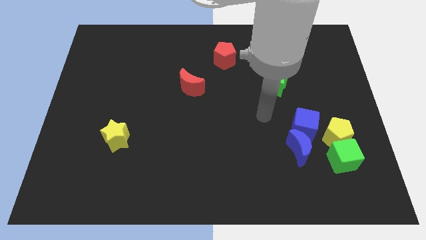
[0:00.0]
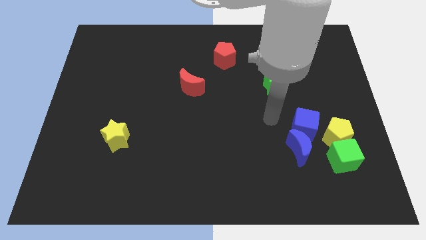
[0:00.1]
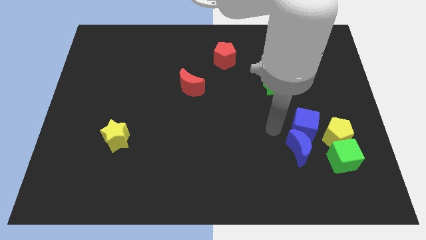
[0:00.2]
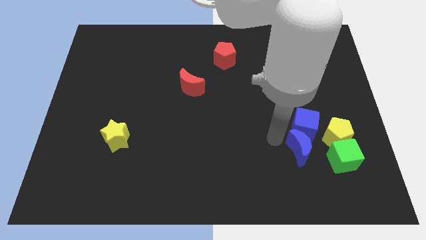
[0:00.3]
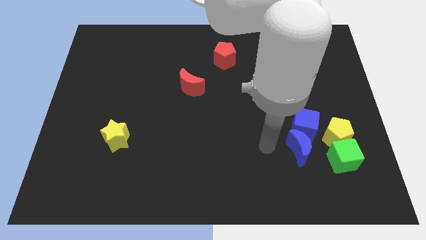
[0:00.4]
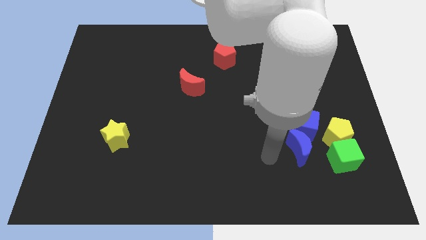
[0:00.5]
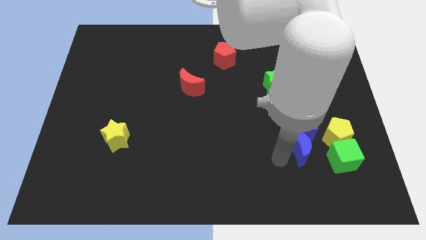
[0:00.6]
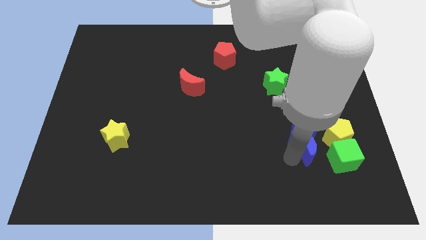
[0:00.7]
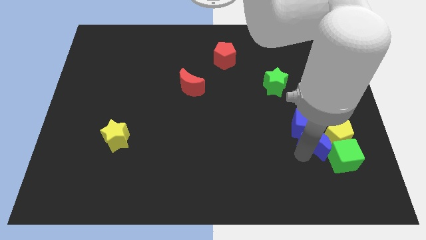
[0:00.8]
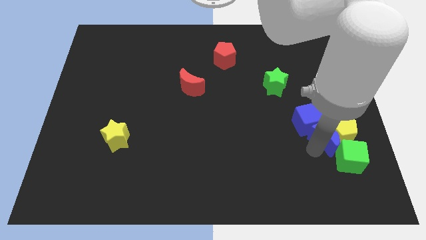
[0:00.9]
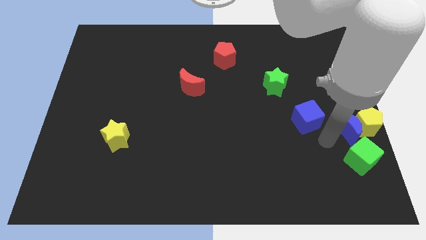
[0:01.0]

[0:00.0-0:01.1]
pull the blue cube apart from the blue moon and yellow pentagon

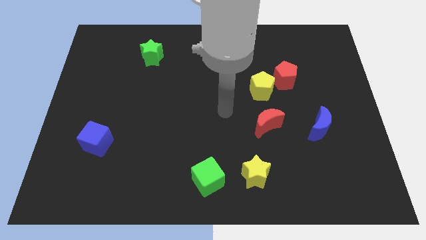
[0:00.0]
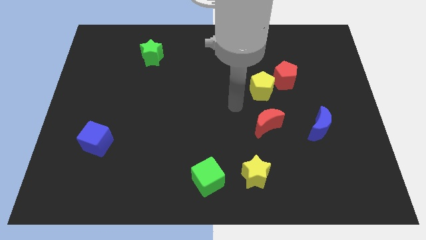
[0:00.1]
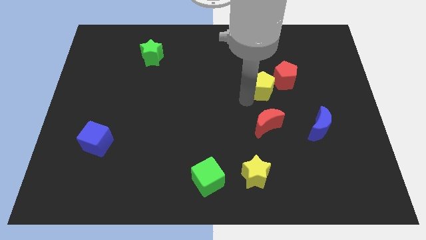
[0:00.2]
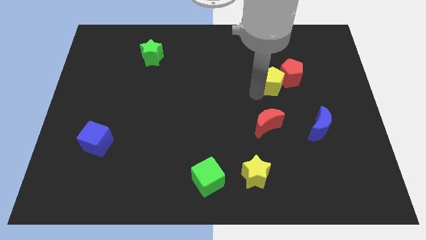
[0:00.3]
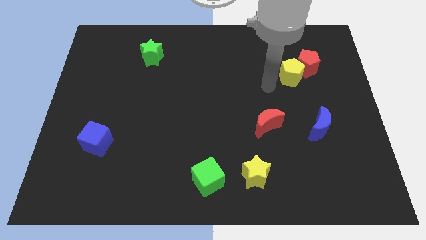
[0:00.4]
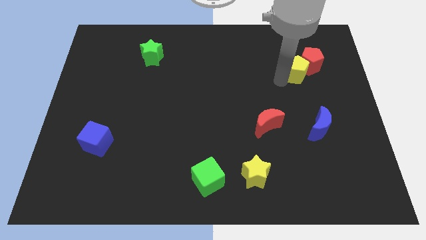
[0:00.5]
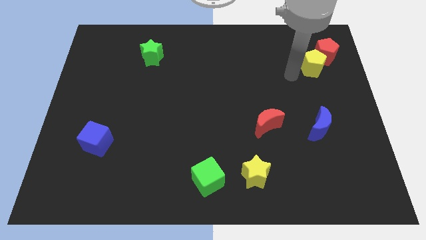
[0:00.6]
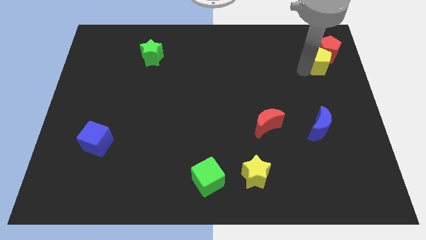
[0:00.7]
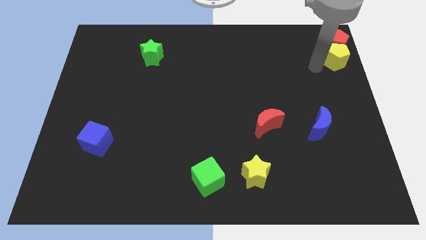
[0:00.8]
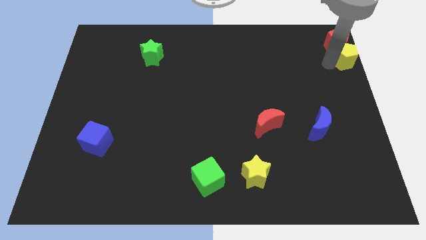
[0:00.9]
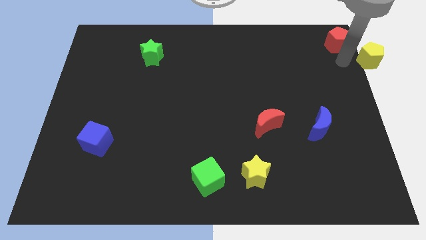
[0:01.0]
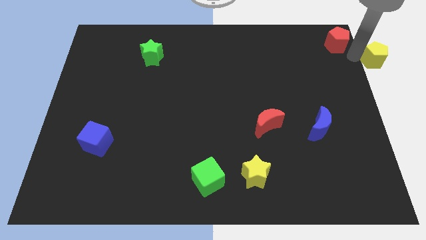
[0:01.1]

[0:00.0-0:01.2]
pull the red pentagon apart from the yellow pentagon

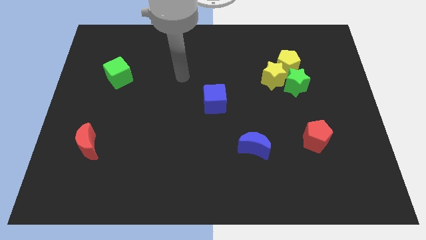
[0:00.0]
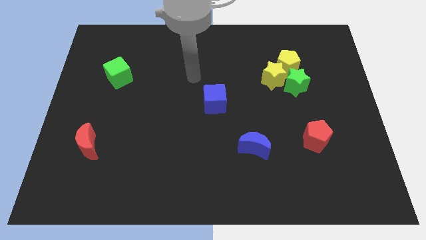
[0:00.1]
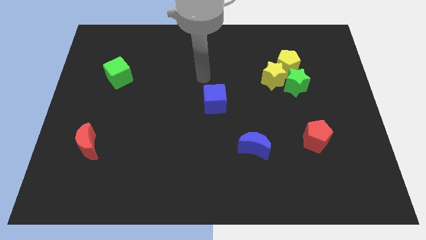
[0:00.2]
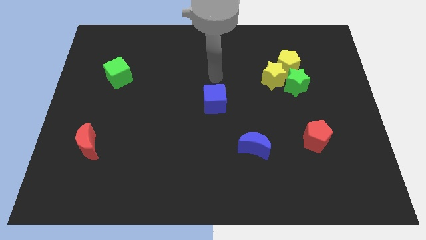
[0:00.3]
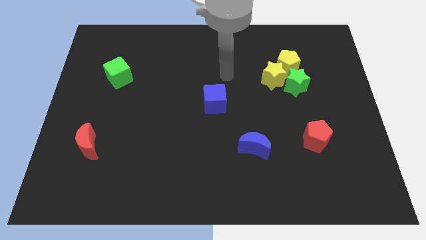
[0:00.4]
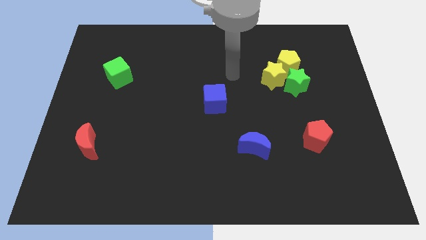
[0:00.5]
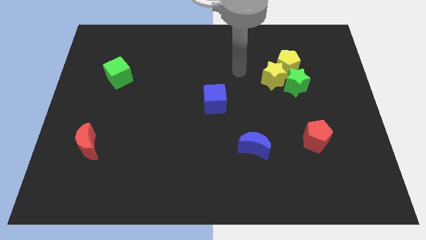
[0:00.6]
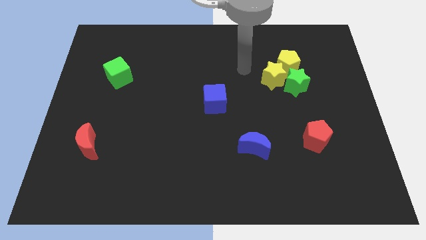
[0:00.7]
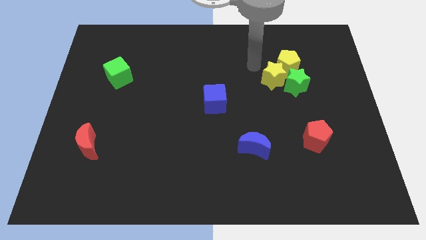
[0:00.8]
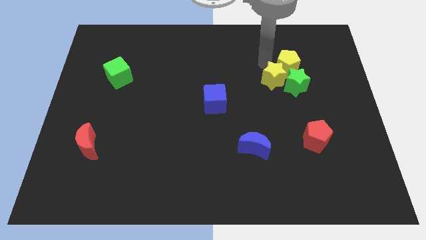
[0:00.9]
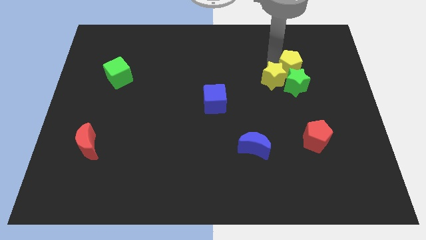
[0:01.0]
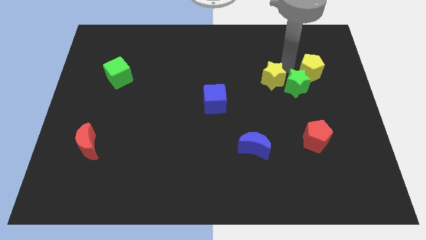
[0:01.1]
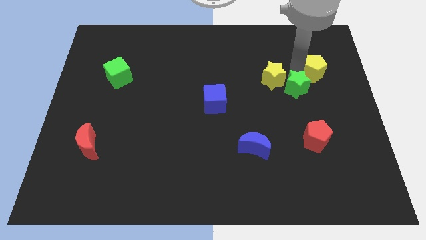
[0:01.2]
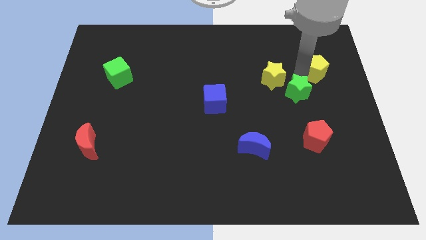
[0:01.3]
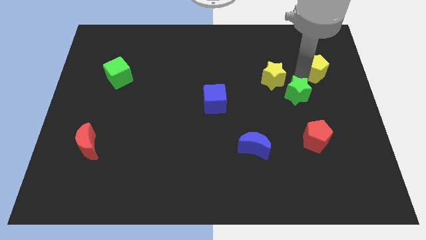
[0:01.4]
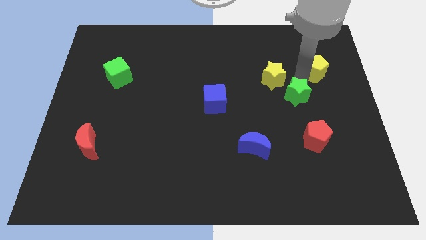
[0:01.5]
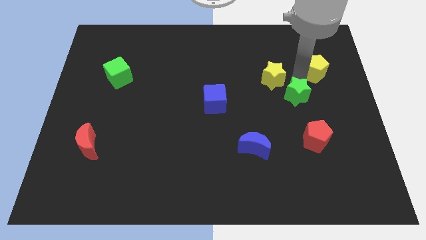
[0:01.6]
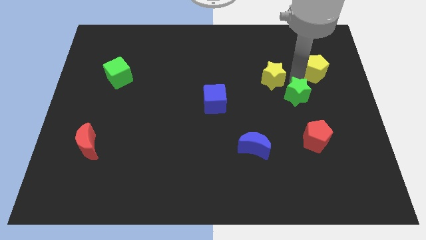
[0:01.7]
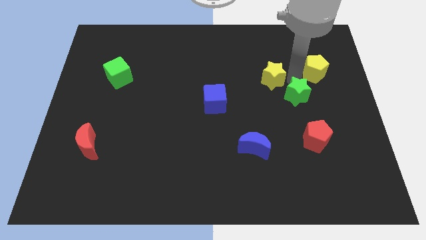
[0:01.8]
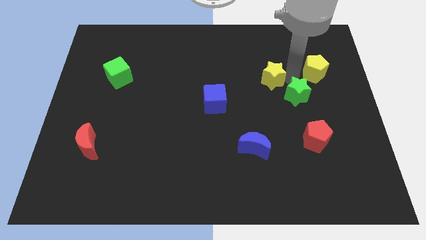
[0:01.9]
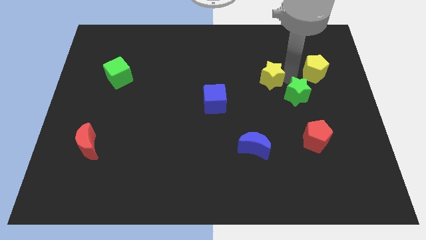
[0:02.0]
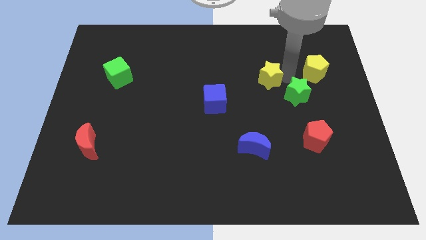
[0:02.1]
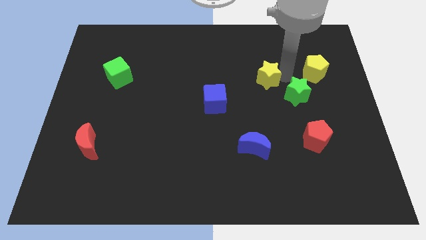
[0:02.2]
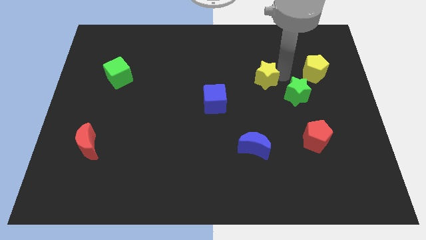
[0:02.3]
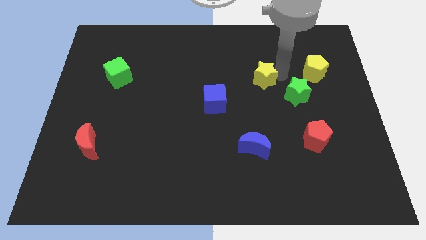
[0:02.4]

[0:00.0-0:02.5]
separate the yellow star from the yellow pentagon and green star

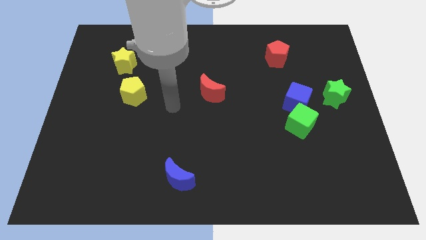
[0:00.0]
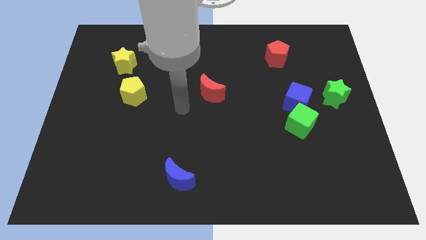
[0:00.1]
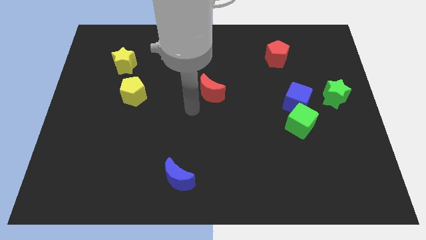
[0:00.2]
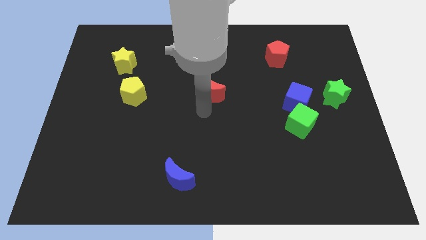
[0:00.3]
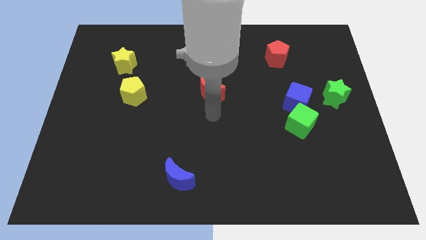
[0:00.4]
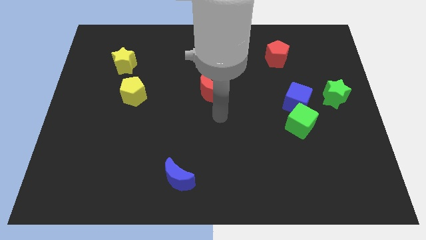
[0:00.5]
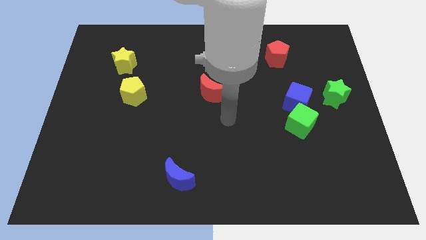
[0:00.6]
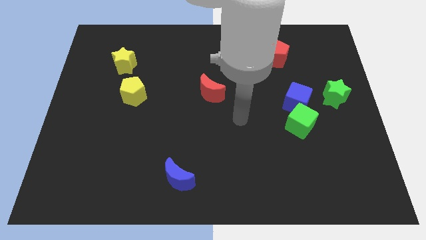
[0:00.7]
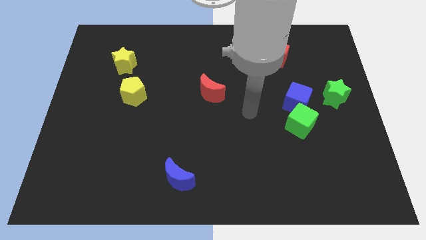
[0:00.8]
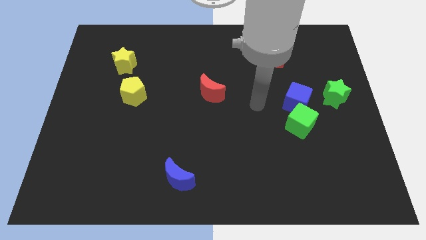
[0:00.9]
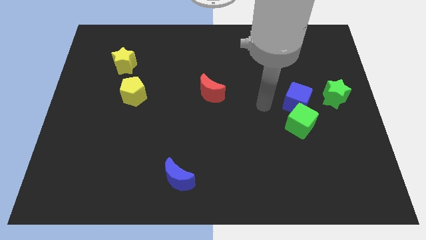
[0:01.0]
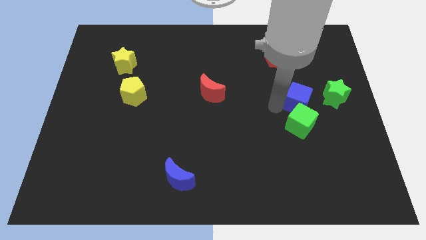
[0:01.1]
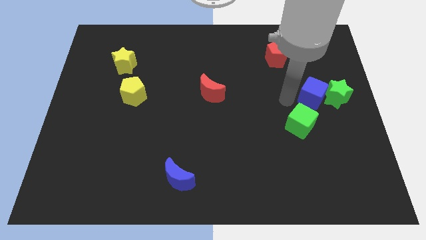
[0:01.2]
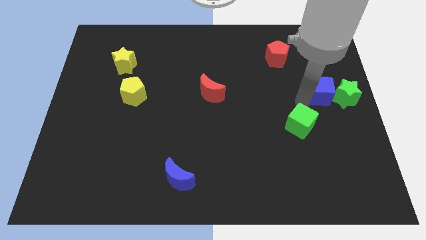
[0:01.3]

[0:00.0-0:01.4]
move the green cube away from the blue cube

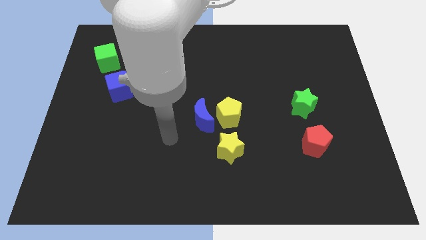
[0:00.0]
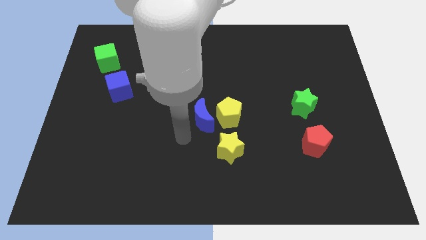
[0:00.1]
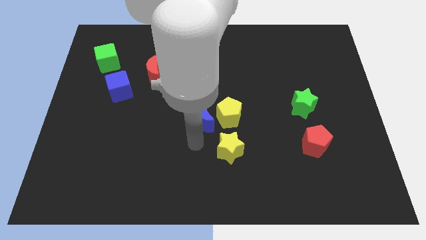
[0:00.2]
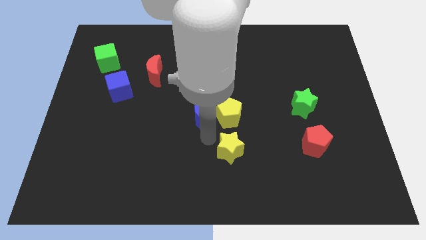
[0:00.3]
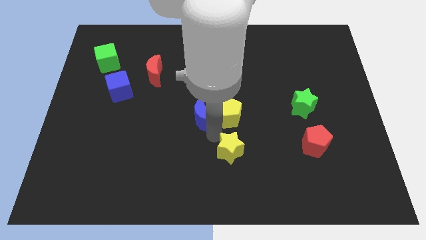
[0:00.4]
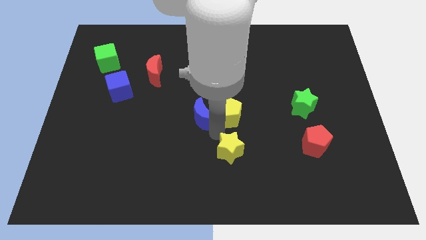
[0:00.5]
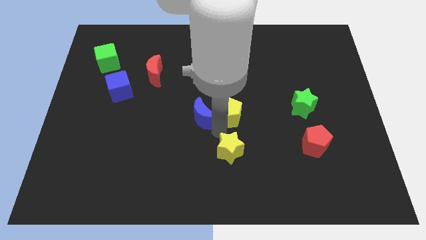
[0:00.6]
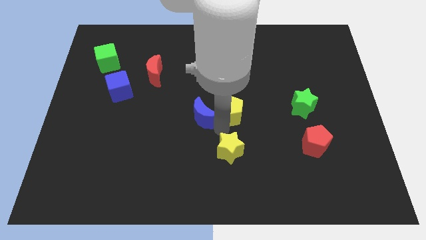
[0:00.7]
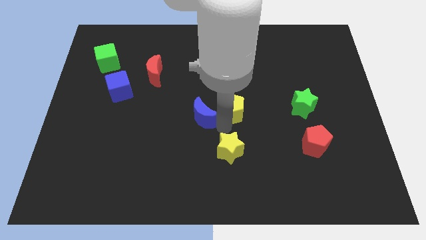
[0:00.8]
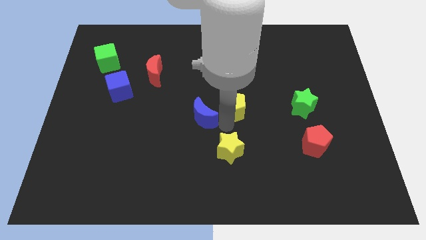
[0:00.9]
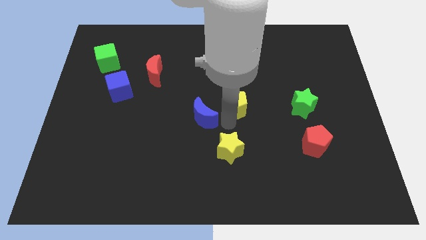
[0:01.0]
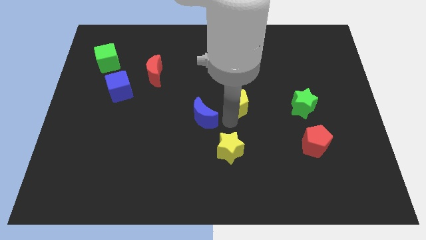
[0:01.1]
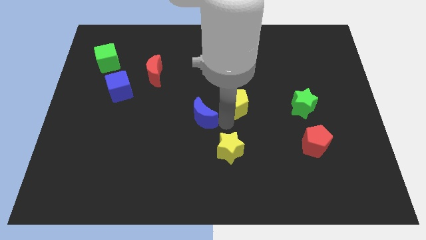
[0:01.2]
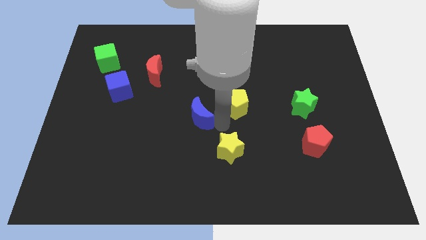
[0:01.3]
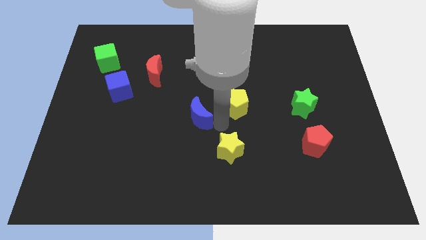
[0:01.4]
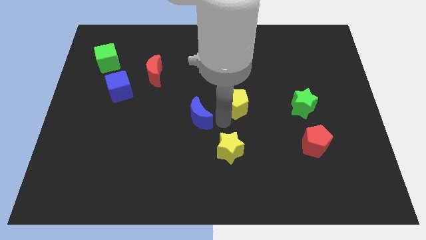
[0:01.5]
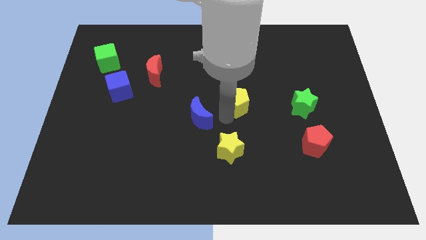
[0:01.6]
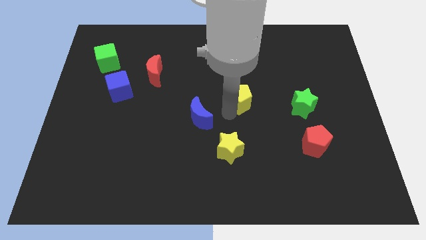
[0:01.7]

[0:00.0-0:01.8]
pull the yellow pentagon apart from the blue moon and yellow star

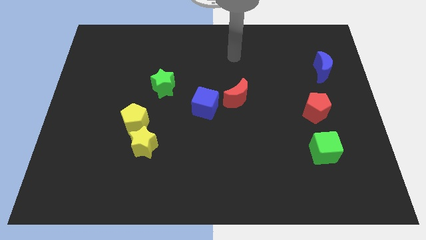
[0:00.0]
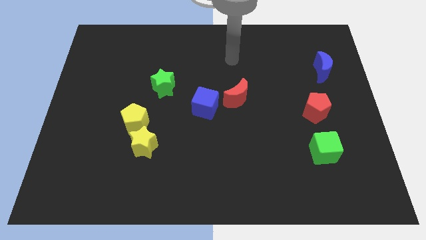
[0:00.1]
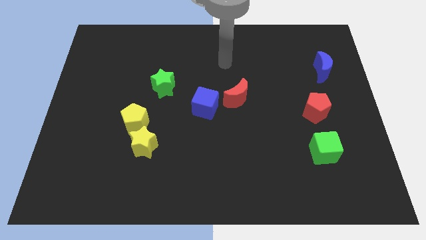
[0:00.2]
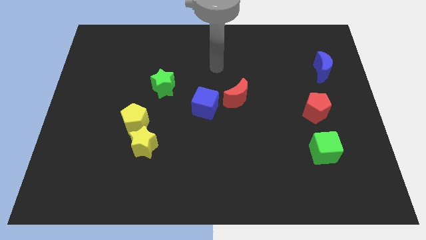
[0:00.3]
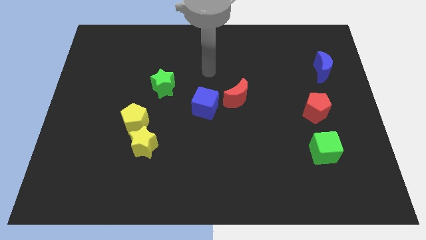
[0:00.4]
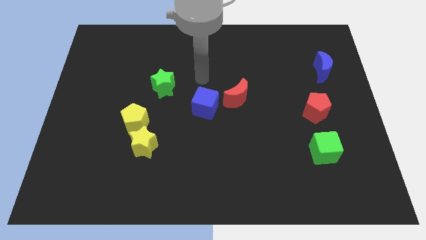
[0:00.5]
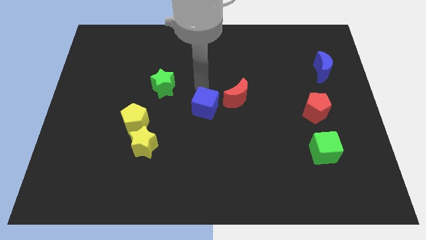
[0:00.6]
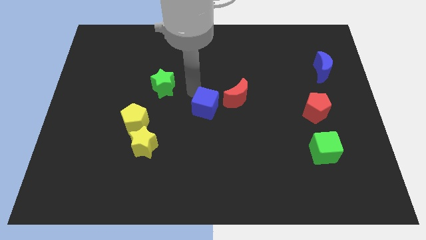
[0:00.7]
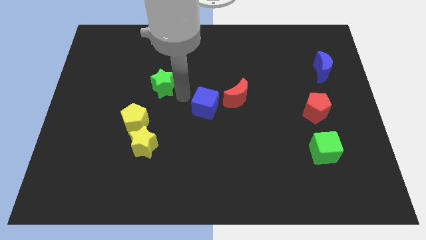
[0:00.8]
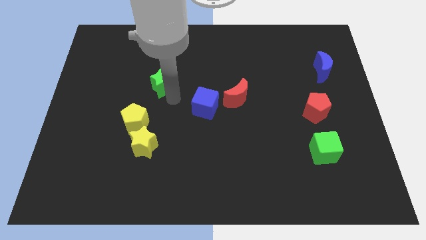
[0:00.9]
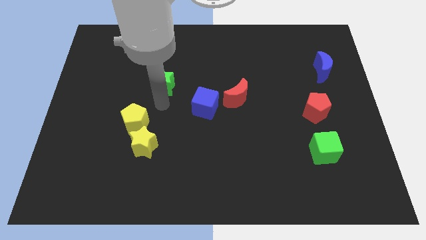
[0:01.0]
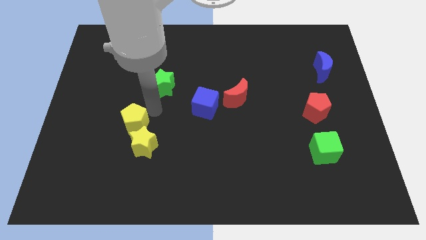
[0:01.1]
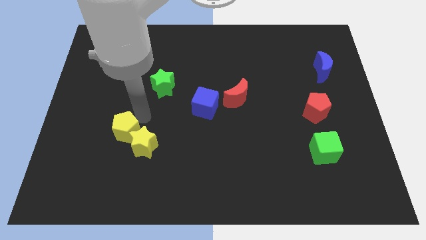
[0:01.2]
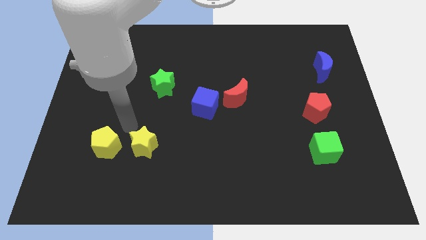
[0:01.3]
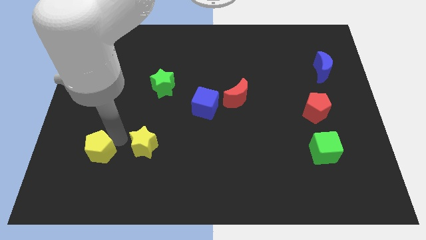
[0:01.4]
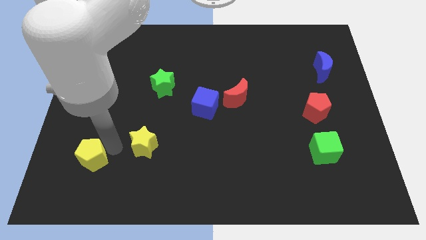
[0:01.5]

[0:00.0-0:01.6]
move the yellow star away from the yellow pentagon
